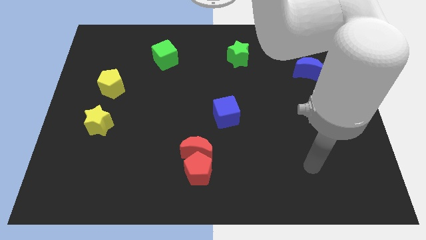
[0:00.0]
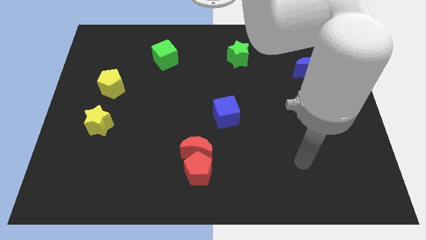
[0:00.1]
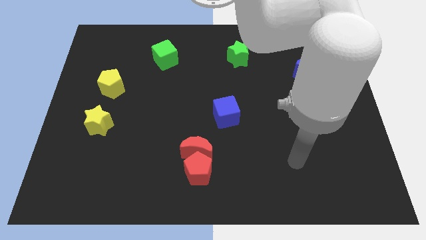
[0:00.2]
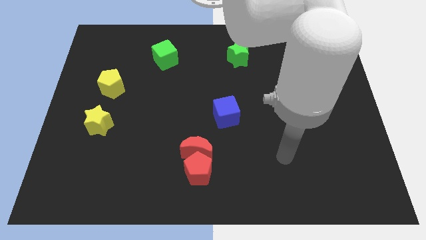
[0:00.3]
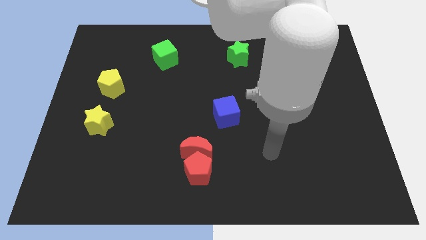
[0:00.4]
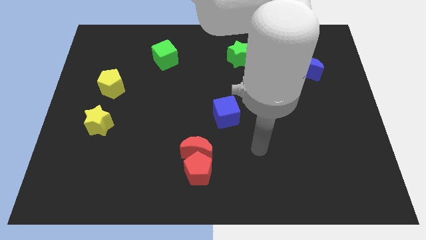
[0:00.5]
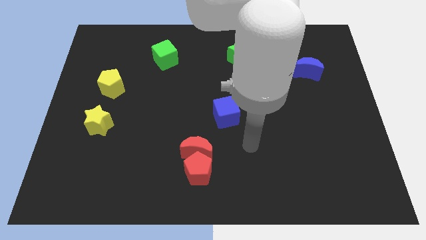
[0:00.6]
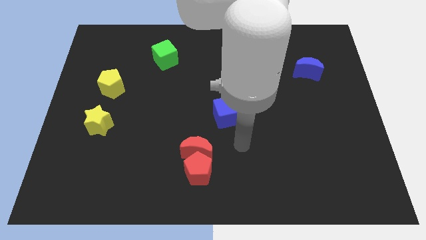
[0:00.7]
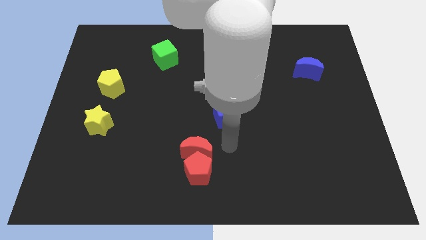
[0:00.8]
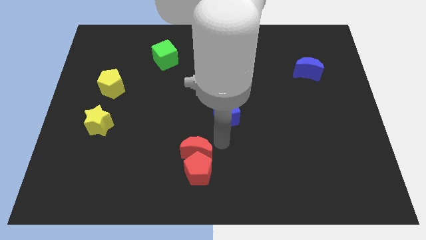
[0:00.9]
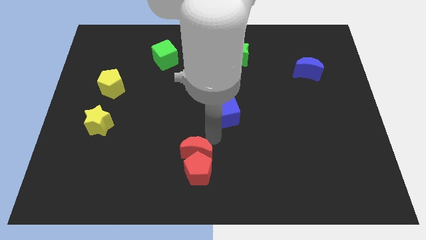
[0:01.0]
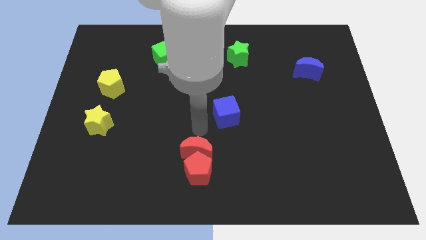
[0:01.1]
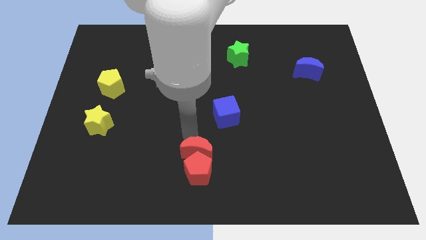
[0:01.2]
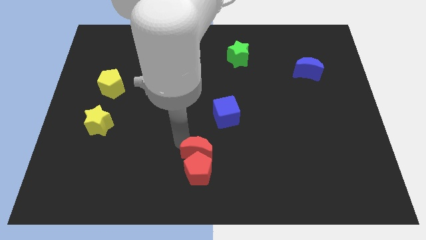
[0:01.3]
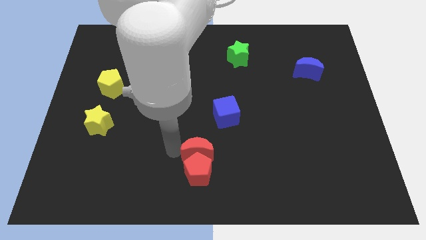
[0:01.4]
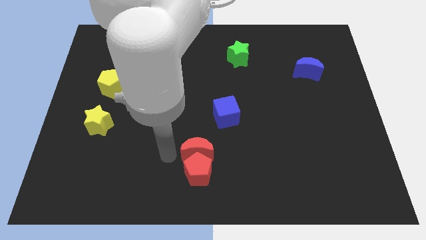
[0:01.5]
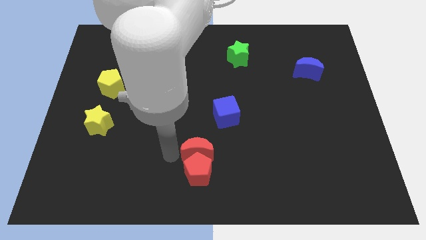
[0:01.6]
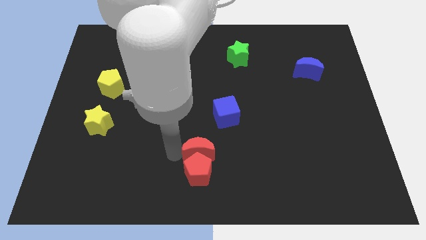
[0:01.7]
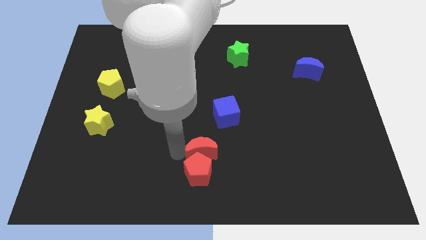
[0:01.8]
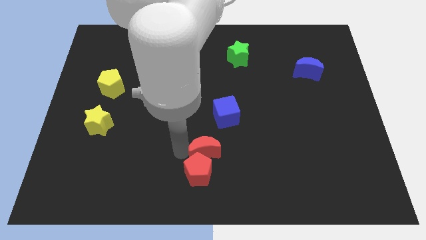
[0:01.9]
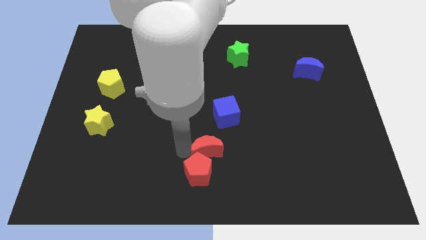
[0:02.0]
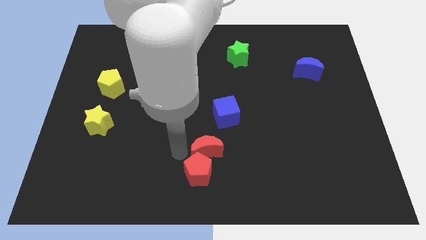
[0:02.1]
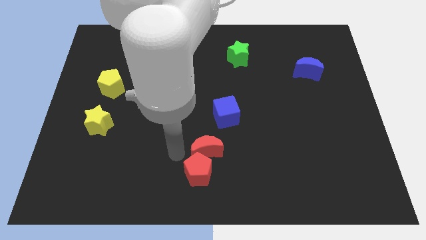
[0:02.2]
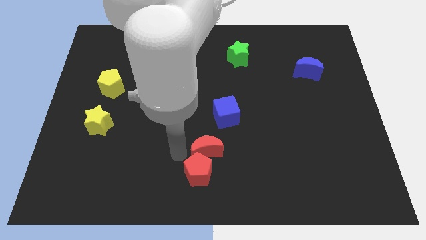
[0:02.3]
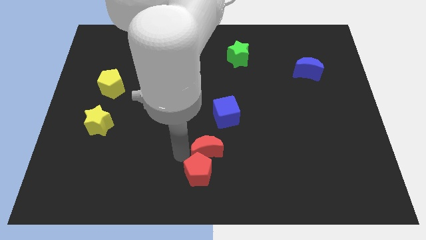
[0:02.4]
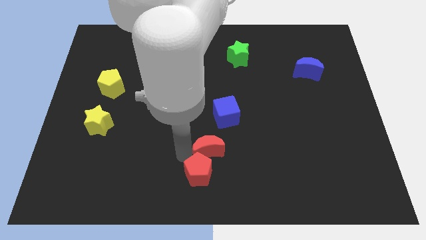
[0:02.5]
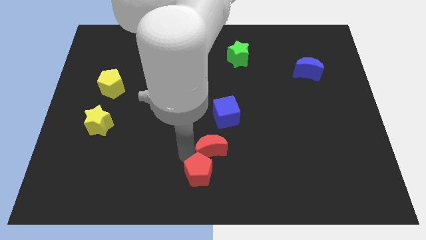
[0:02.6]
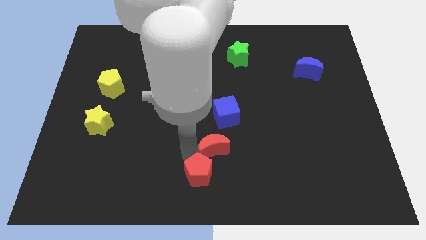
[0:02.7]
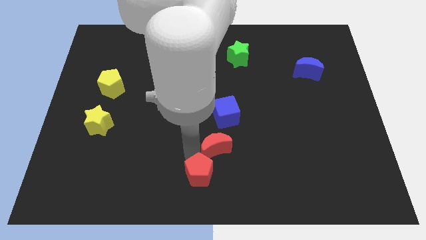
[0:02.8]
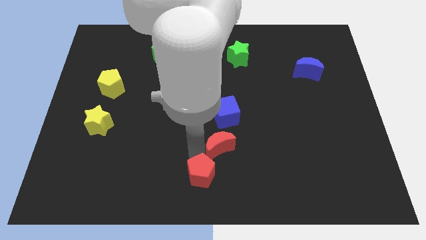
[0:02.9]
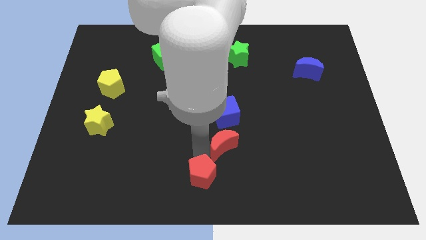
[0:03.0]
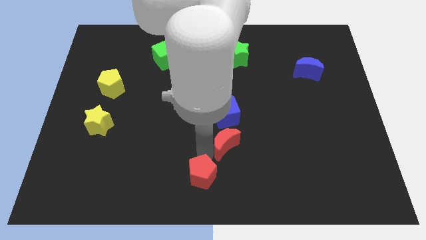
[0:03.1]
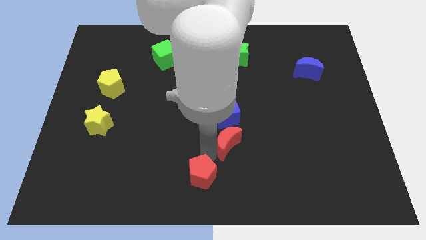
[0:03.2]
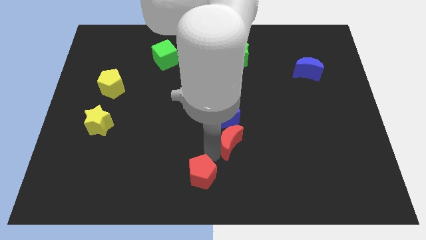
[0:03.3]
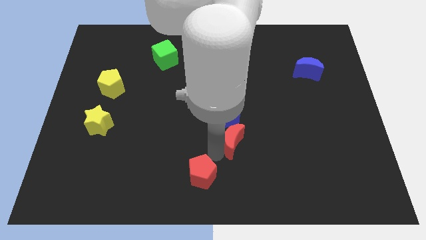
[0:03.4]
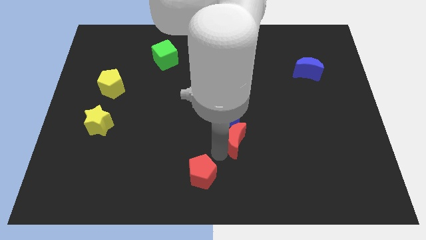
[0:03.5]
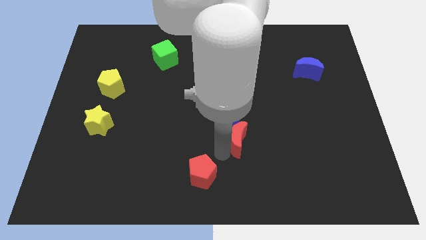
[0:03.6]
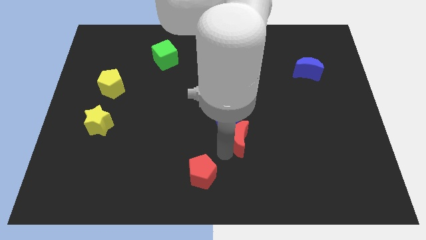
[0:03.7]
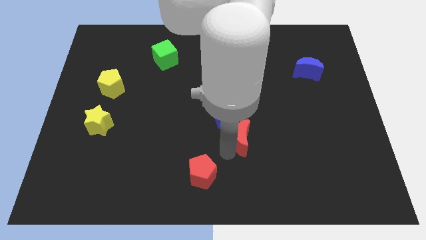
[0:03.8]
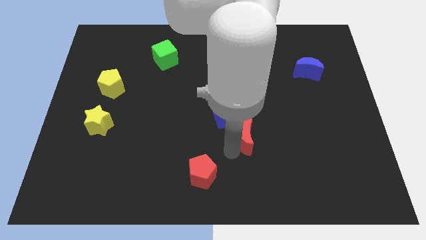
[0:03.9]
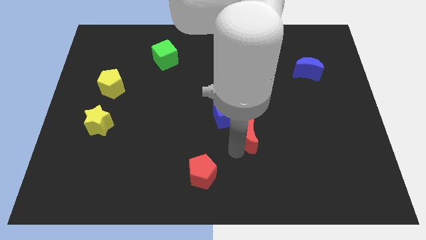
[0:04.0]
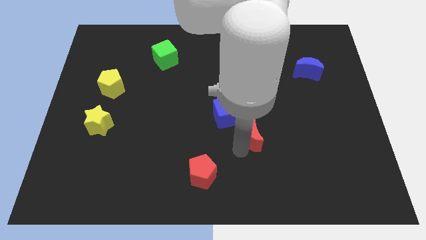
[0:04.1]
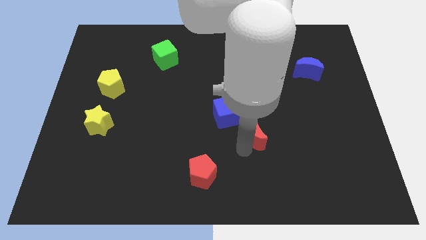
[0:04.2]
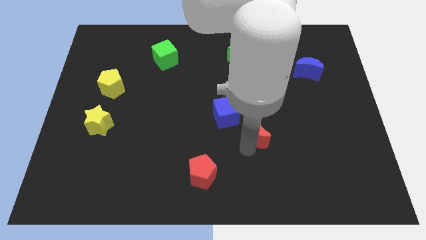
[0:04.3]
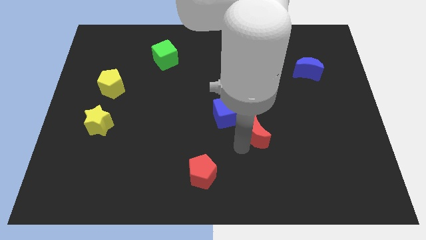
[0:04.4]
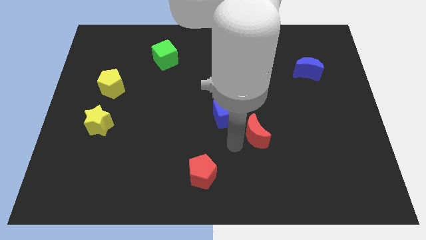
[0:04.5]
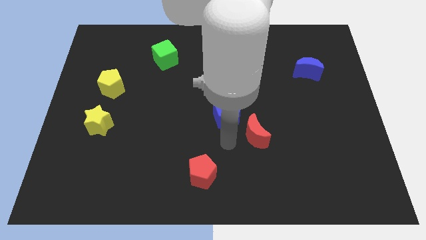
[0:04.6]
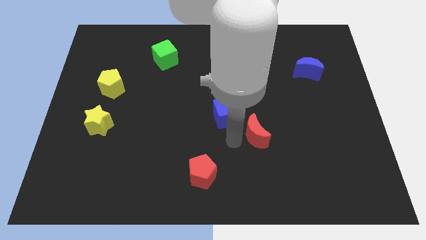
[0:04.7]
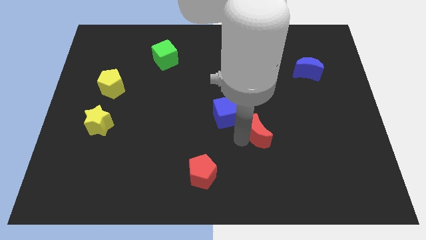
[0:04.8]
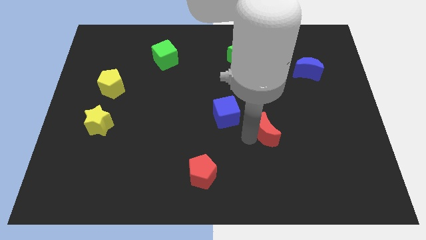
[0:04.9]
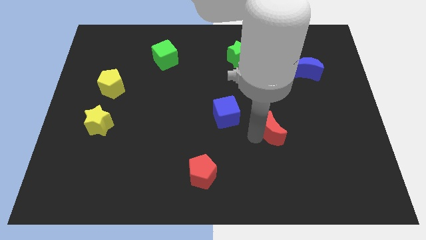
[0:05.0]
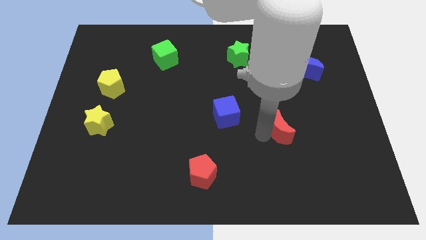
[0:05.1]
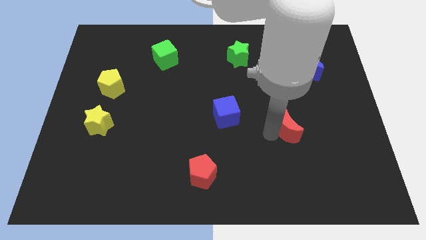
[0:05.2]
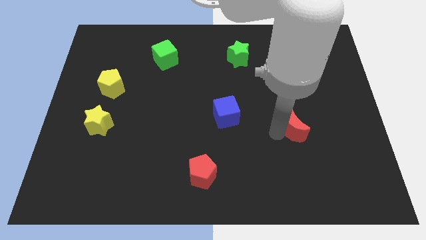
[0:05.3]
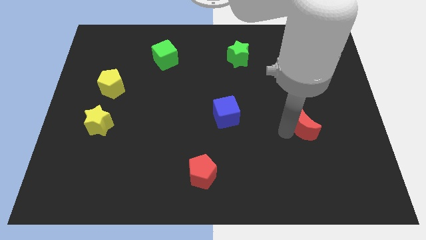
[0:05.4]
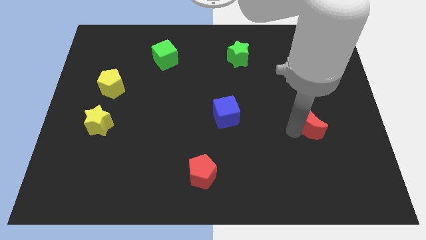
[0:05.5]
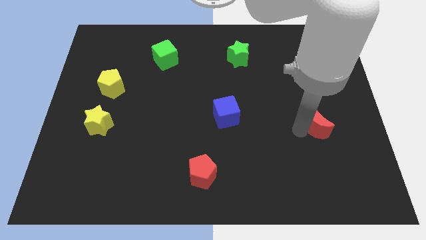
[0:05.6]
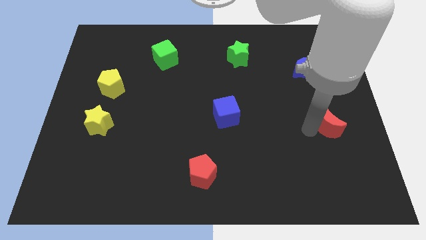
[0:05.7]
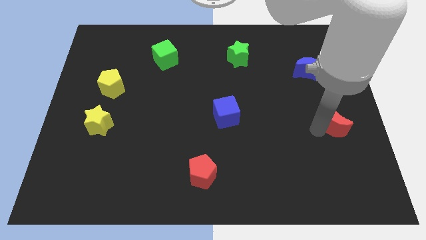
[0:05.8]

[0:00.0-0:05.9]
slide the red moon to the right side of the board

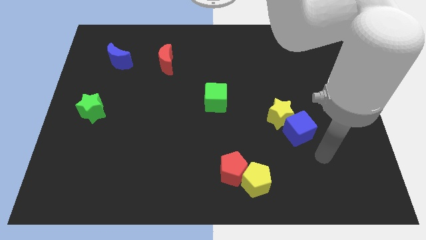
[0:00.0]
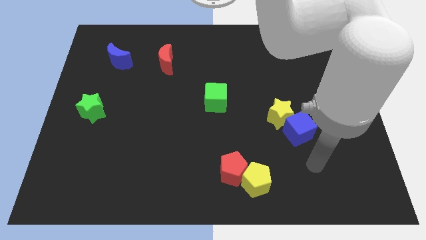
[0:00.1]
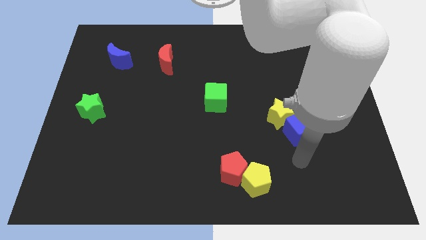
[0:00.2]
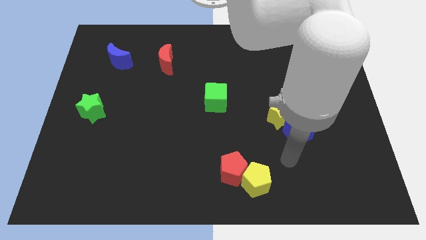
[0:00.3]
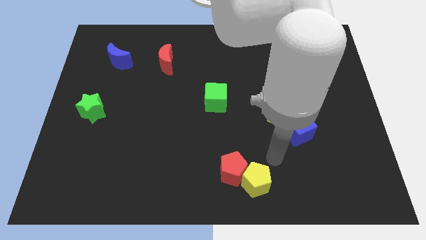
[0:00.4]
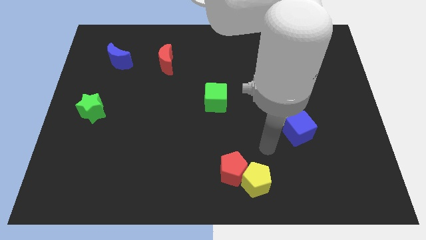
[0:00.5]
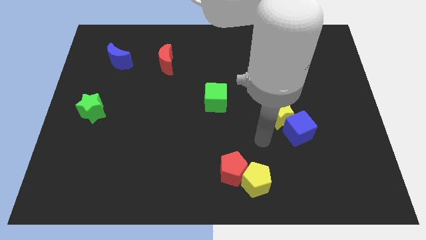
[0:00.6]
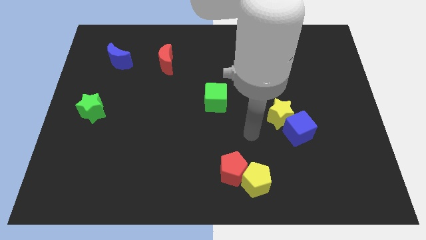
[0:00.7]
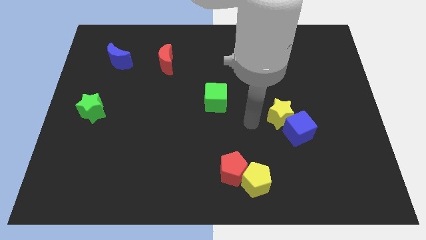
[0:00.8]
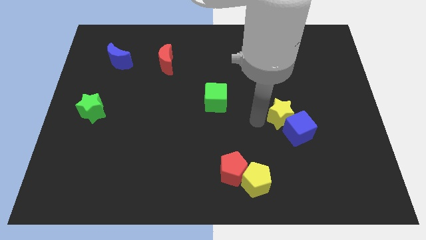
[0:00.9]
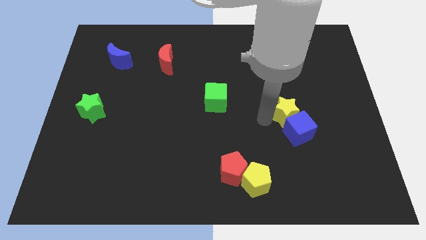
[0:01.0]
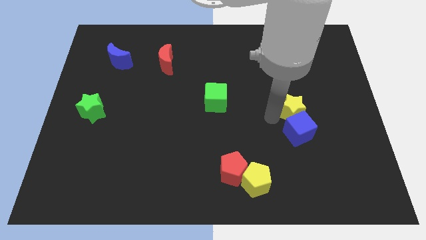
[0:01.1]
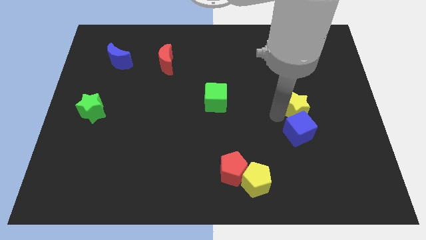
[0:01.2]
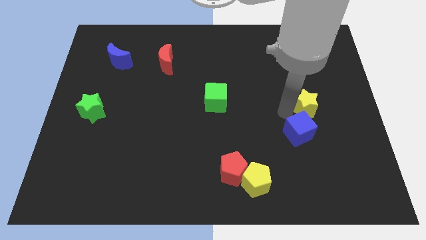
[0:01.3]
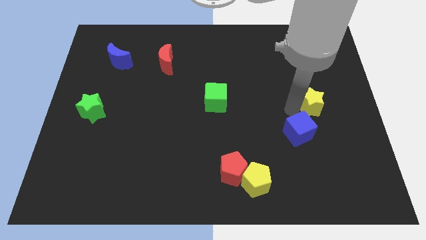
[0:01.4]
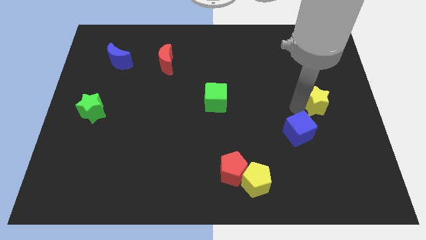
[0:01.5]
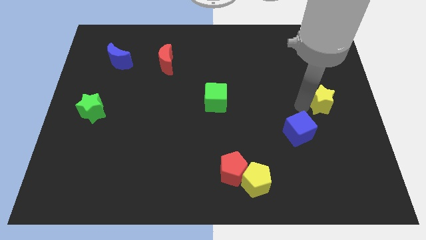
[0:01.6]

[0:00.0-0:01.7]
slide the yellow star to the right side of the board
